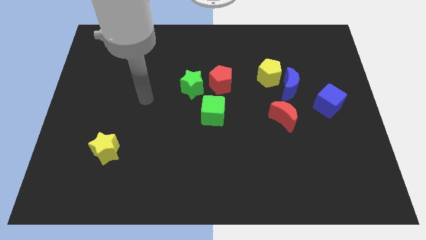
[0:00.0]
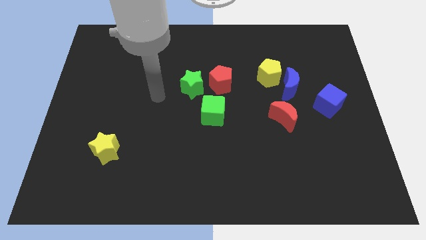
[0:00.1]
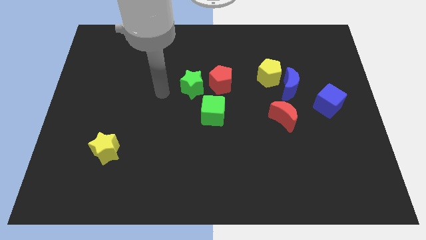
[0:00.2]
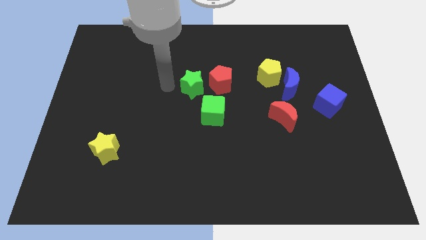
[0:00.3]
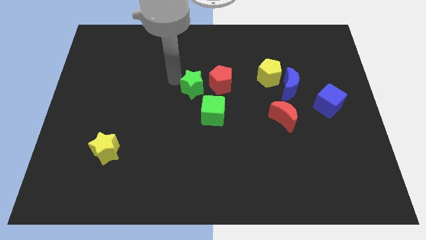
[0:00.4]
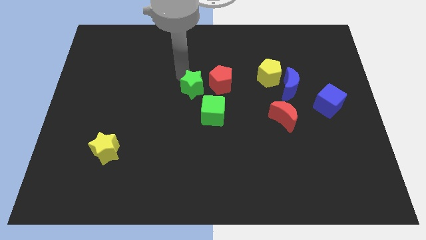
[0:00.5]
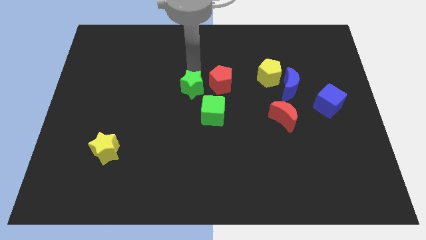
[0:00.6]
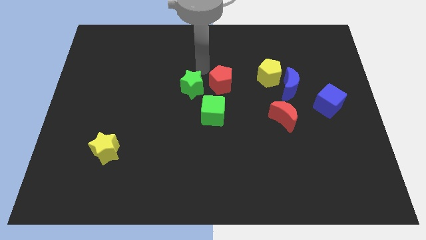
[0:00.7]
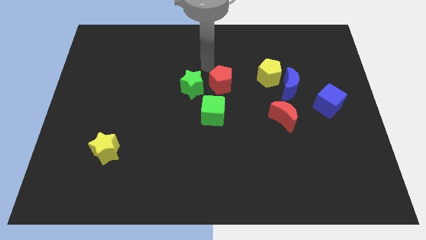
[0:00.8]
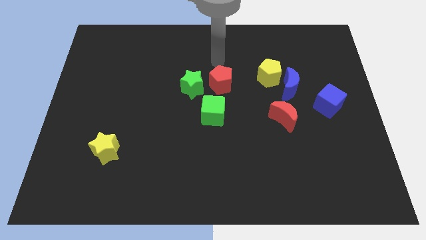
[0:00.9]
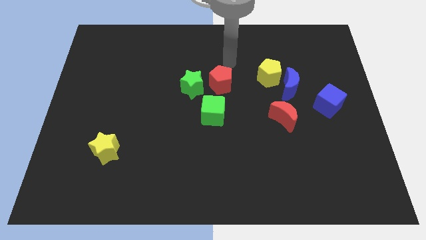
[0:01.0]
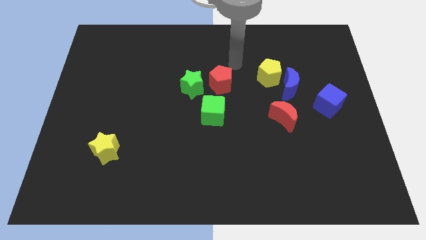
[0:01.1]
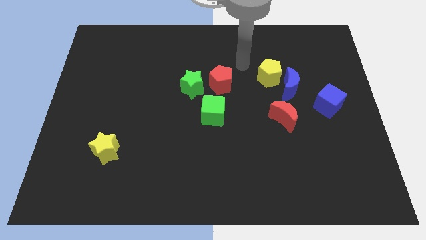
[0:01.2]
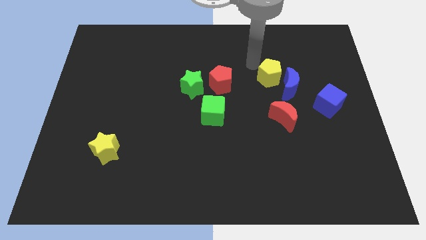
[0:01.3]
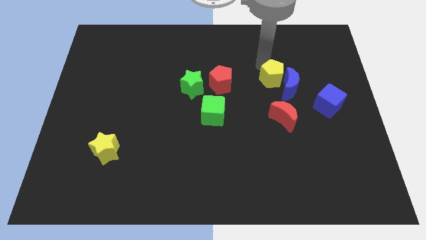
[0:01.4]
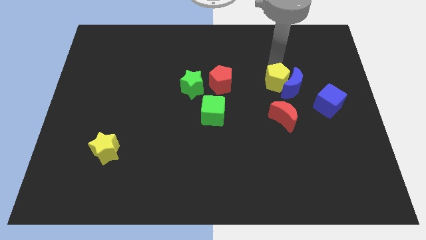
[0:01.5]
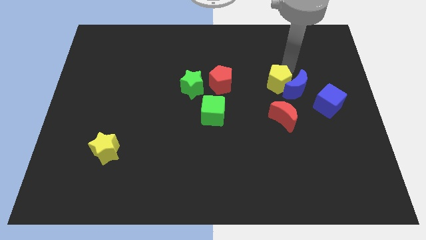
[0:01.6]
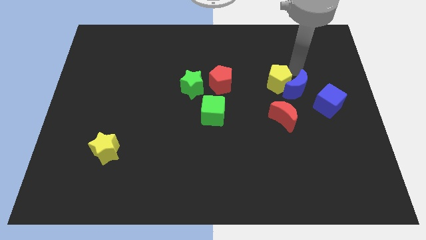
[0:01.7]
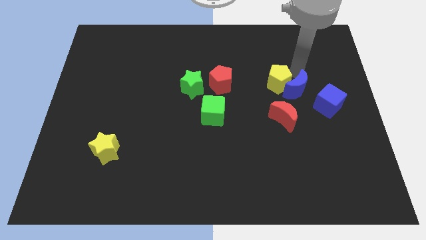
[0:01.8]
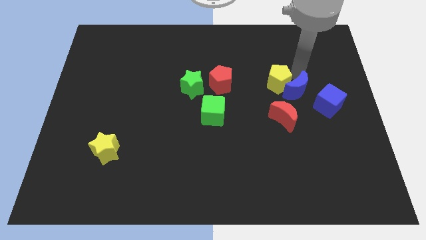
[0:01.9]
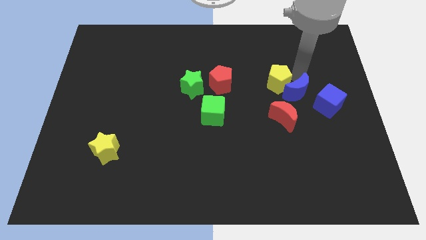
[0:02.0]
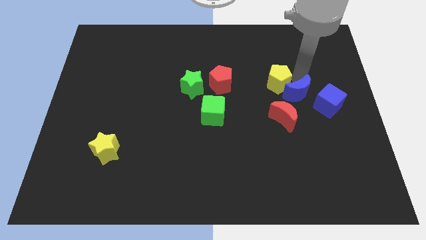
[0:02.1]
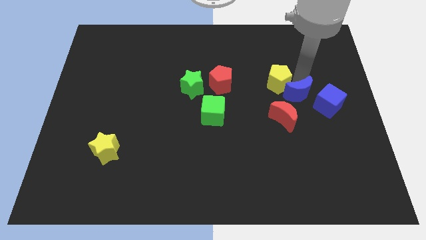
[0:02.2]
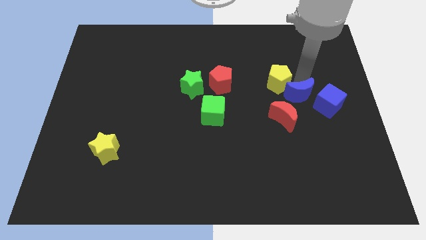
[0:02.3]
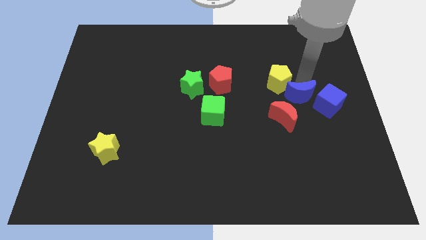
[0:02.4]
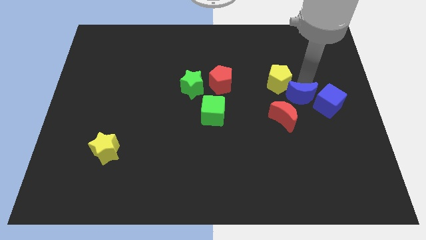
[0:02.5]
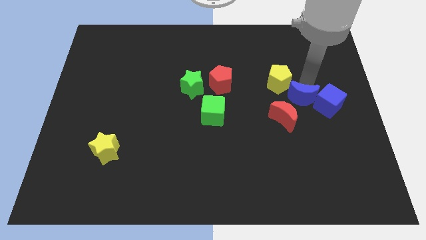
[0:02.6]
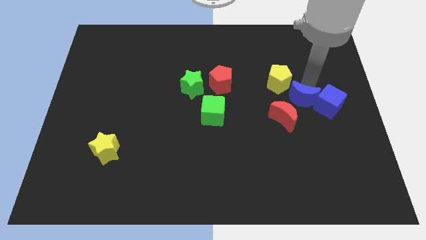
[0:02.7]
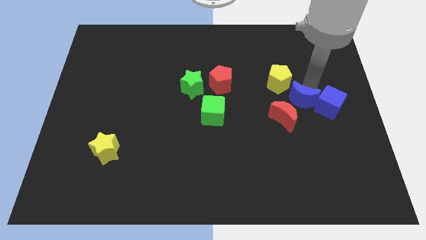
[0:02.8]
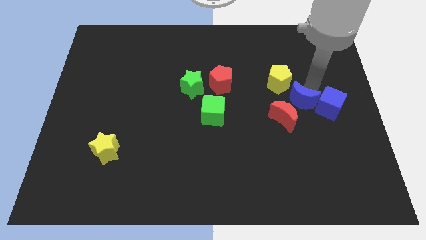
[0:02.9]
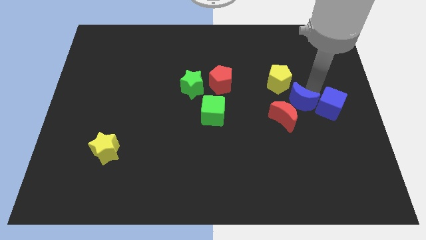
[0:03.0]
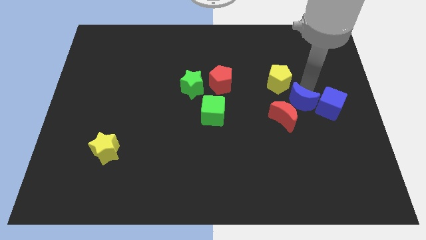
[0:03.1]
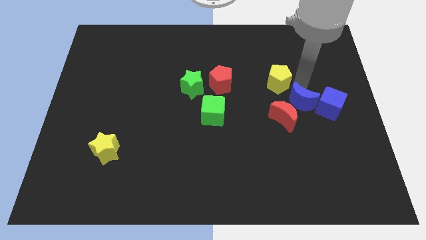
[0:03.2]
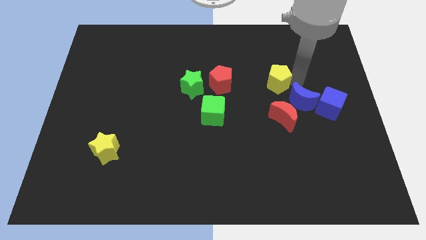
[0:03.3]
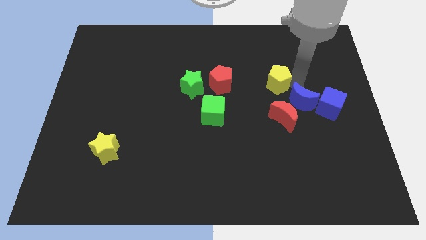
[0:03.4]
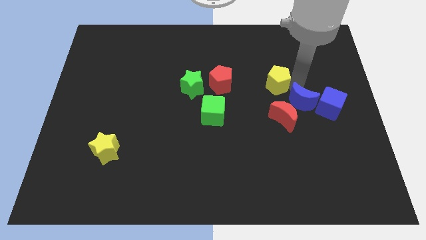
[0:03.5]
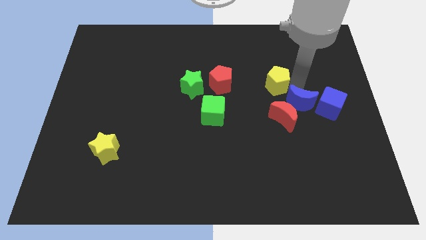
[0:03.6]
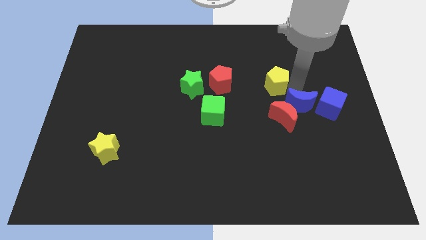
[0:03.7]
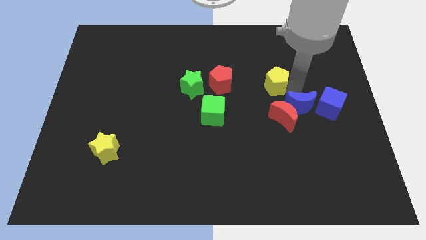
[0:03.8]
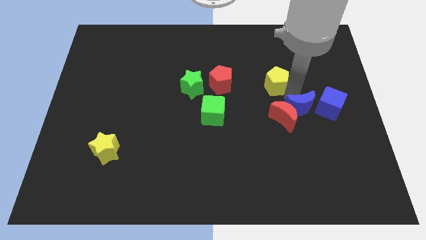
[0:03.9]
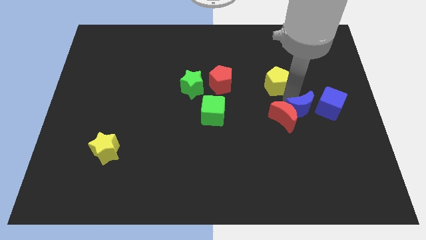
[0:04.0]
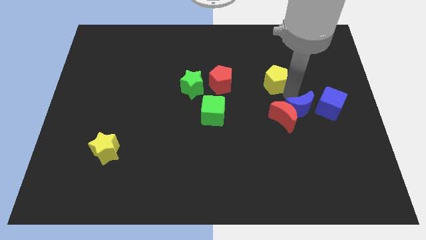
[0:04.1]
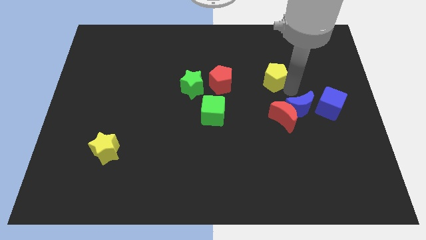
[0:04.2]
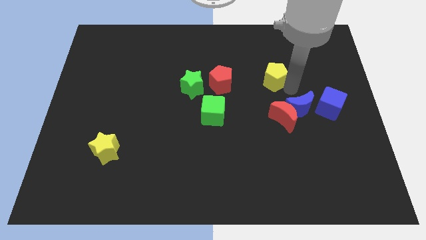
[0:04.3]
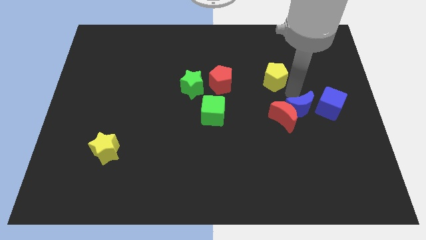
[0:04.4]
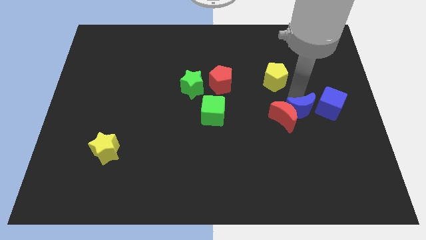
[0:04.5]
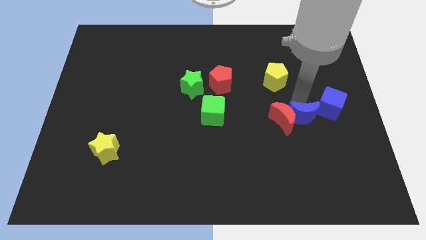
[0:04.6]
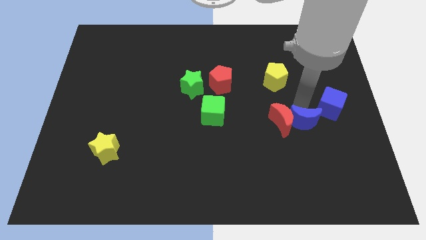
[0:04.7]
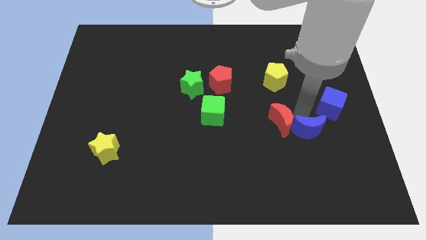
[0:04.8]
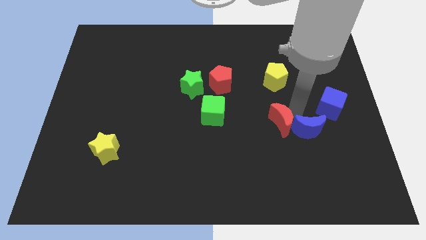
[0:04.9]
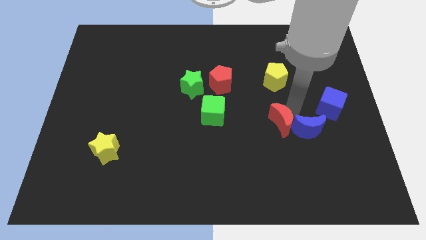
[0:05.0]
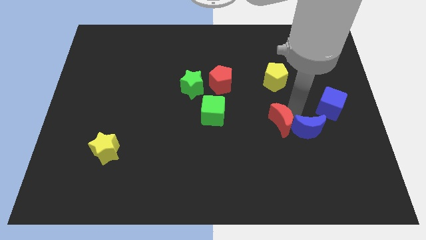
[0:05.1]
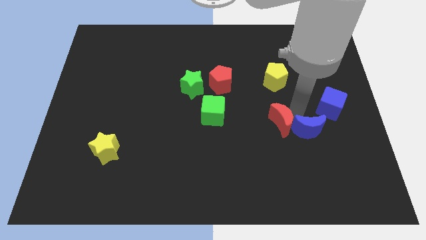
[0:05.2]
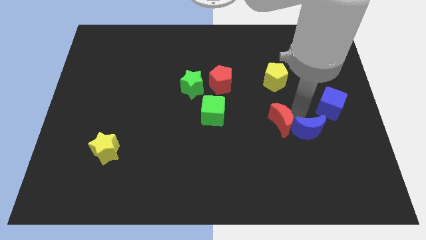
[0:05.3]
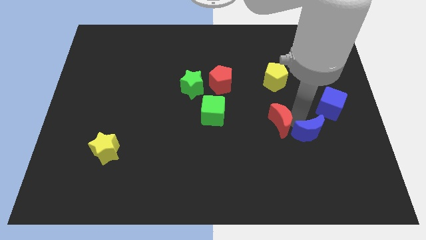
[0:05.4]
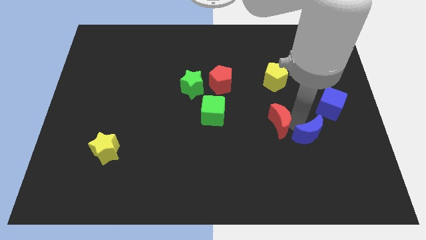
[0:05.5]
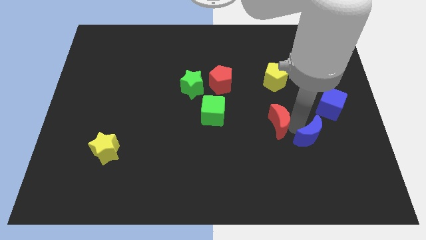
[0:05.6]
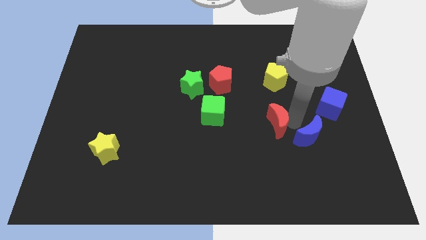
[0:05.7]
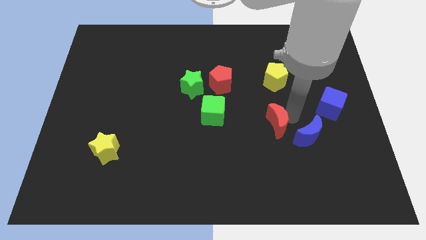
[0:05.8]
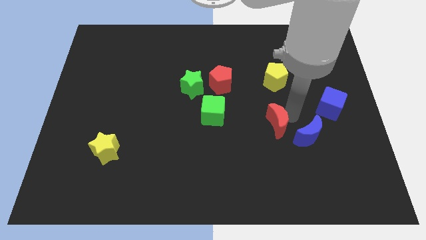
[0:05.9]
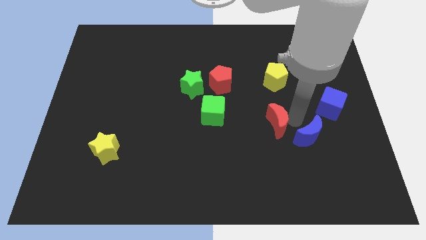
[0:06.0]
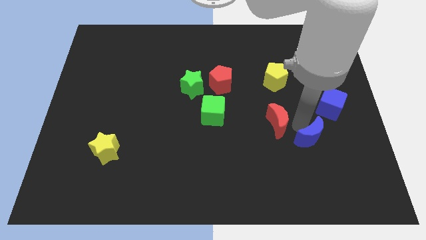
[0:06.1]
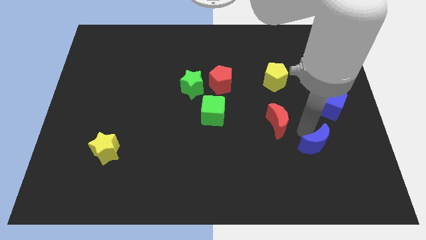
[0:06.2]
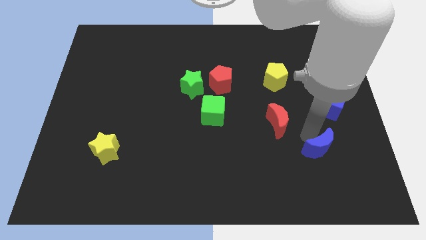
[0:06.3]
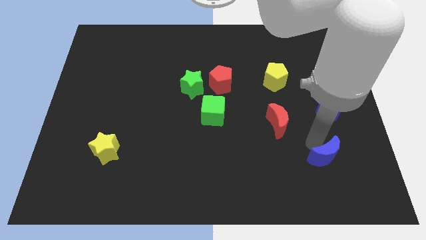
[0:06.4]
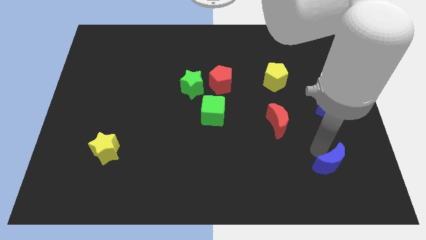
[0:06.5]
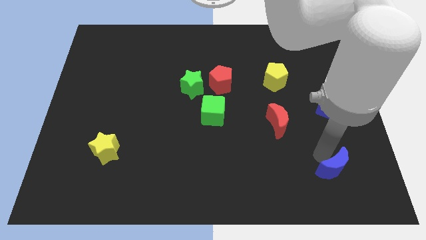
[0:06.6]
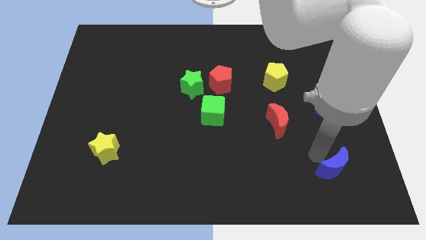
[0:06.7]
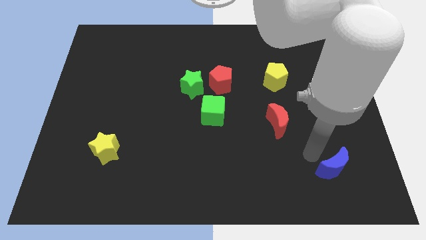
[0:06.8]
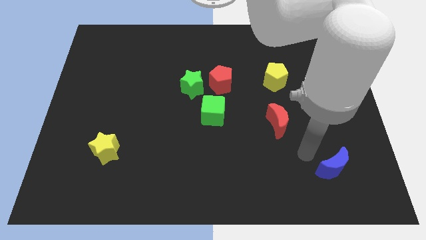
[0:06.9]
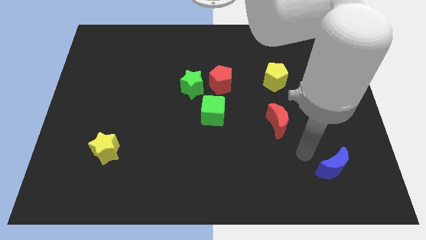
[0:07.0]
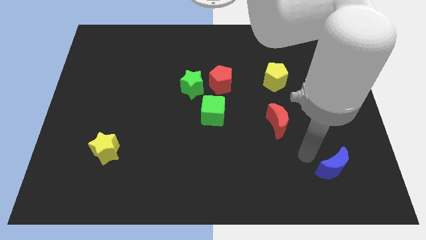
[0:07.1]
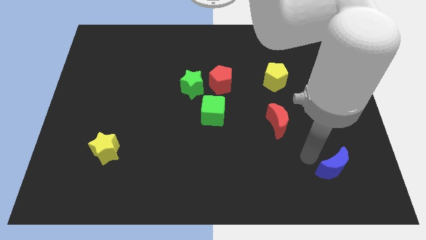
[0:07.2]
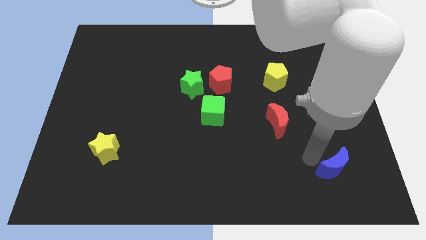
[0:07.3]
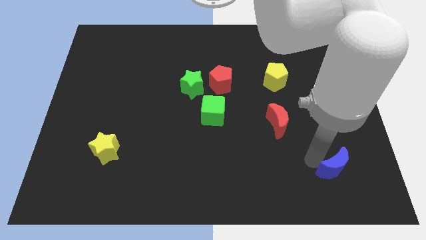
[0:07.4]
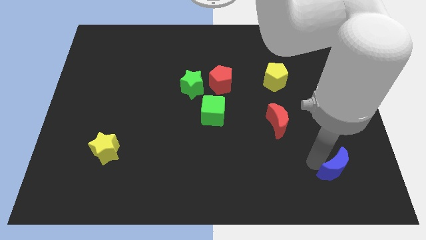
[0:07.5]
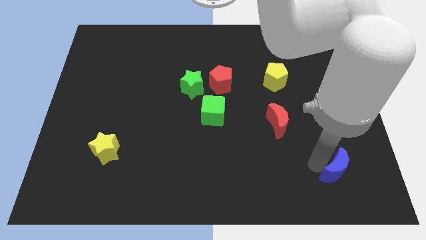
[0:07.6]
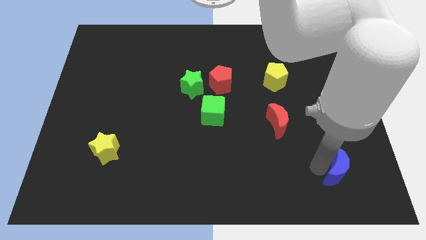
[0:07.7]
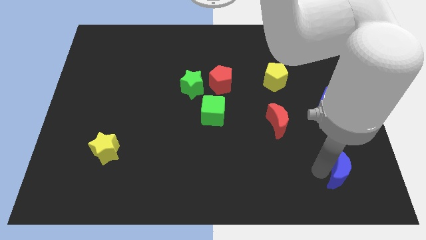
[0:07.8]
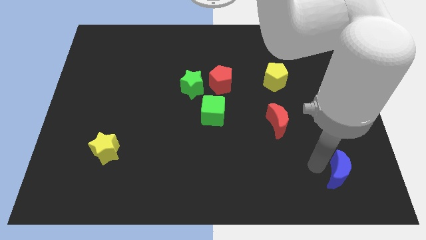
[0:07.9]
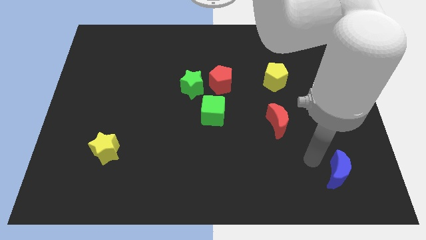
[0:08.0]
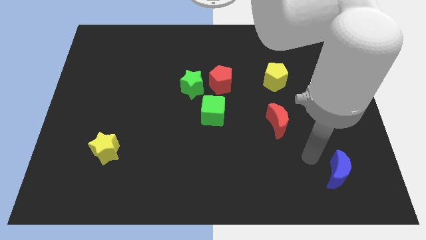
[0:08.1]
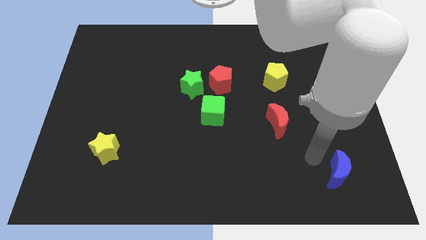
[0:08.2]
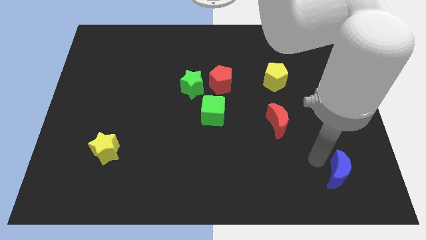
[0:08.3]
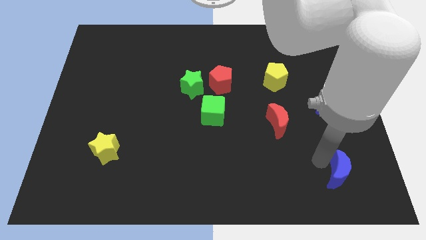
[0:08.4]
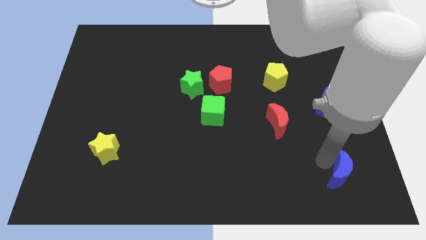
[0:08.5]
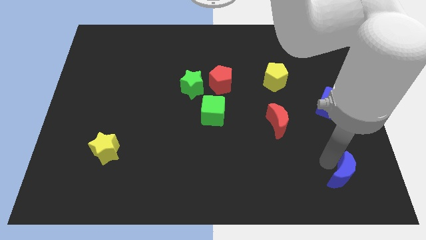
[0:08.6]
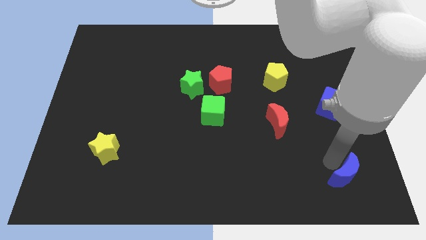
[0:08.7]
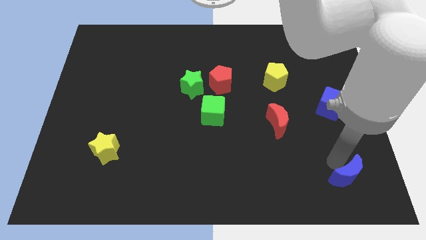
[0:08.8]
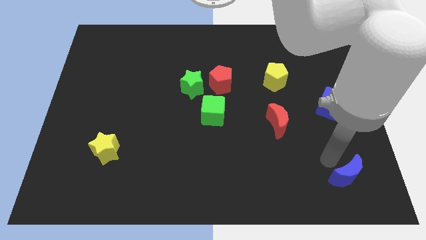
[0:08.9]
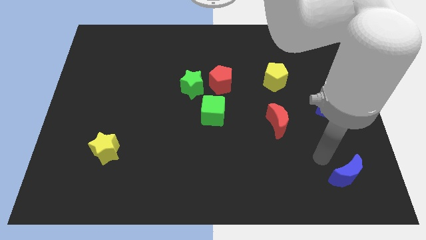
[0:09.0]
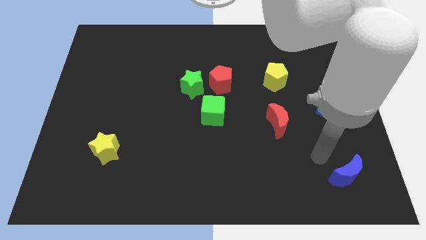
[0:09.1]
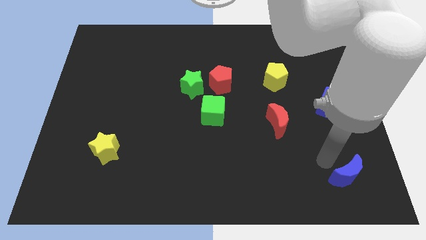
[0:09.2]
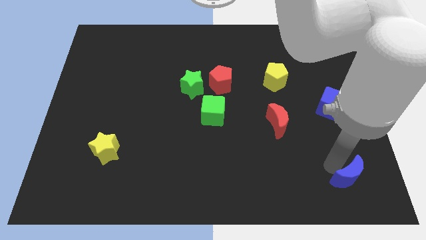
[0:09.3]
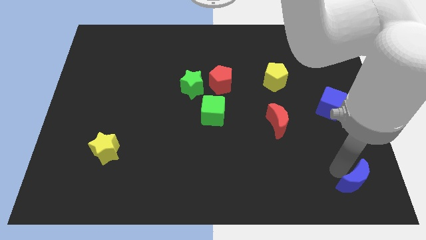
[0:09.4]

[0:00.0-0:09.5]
push the blue moon to the lower right corner
